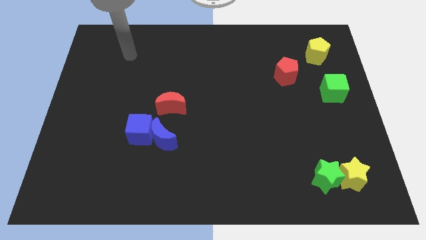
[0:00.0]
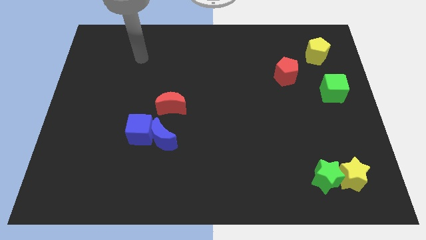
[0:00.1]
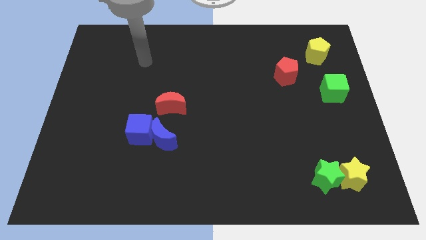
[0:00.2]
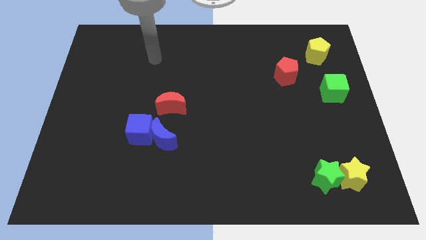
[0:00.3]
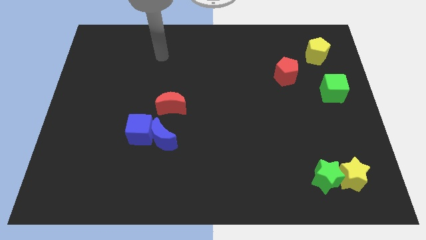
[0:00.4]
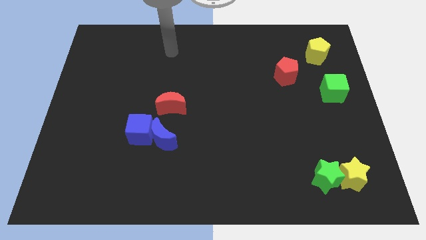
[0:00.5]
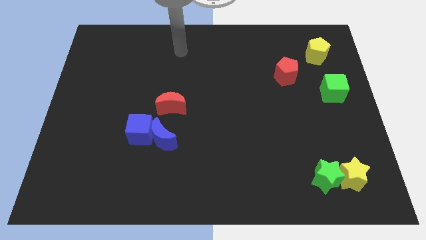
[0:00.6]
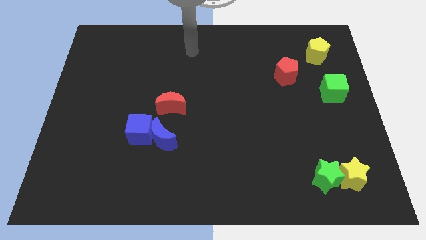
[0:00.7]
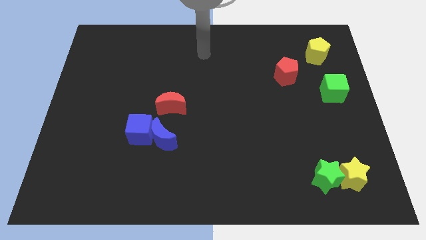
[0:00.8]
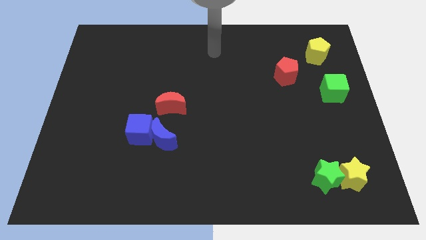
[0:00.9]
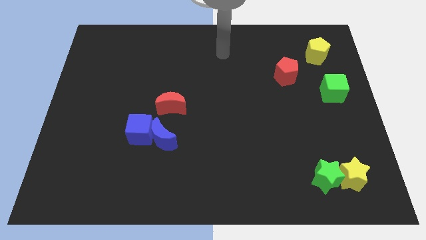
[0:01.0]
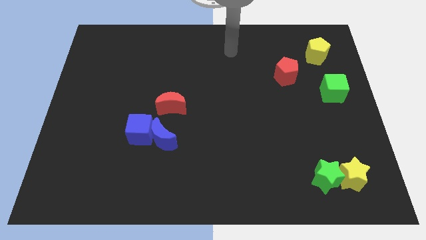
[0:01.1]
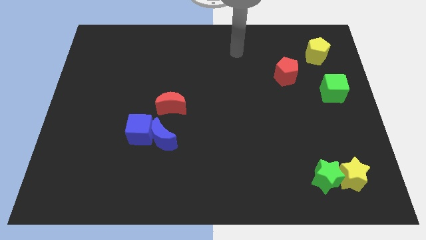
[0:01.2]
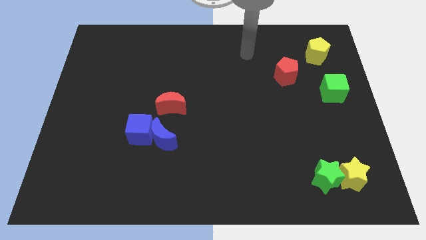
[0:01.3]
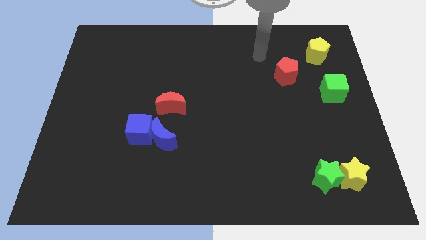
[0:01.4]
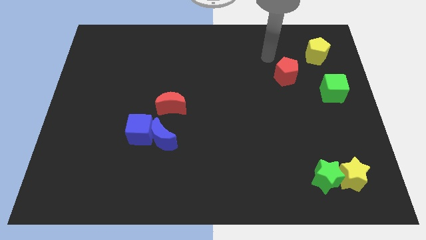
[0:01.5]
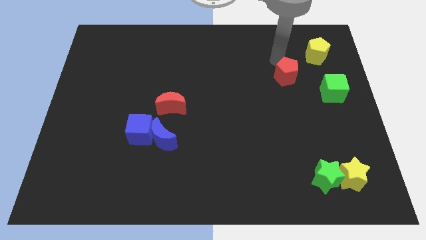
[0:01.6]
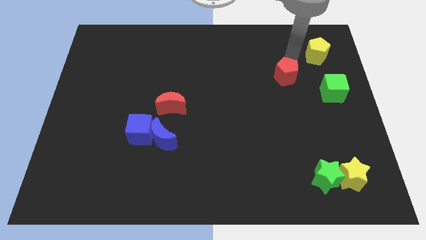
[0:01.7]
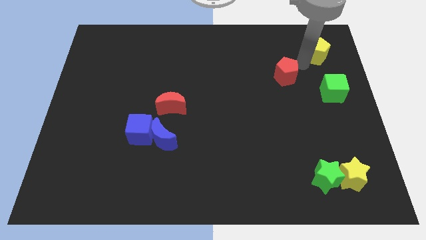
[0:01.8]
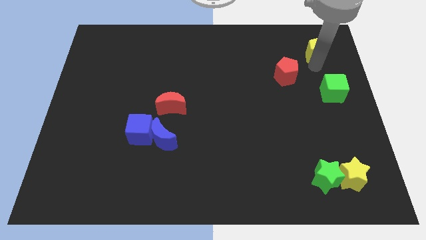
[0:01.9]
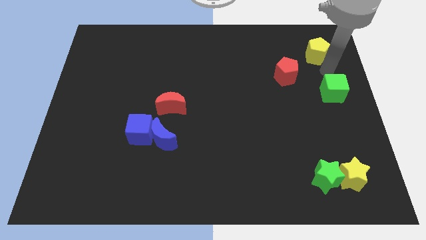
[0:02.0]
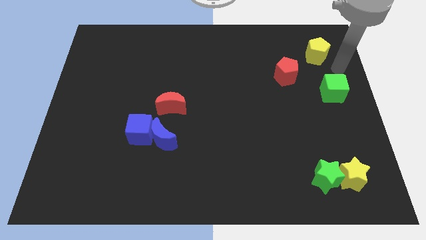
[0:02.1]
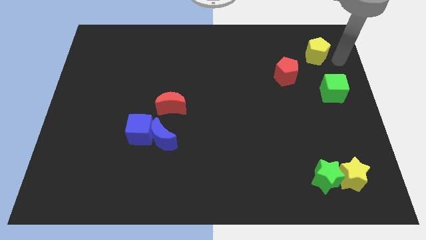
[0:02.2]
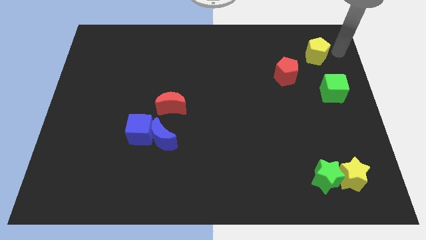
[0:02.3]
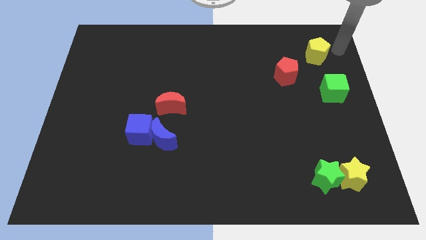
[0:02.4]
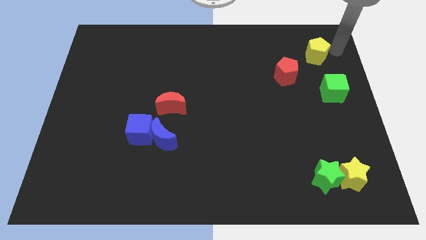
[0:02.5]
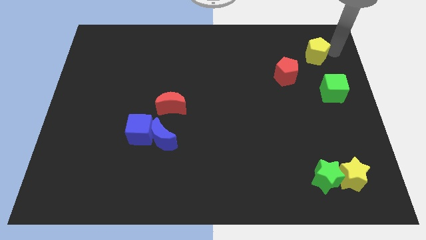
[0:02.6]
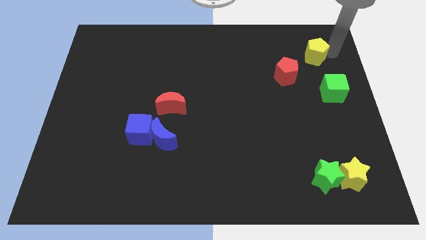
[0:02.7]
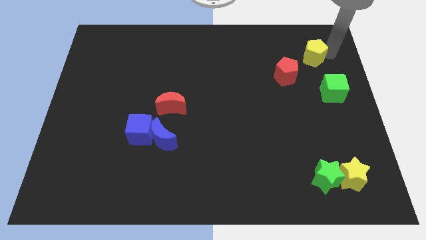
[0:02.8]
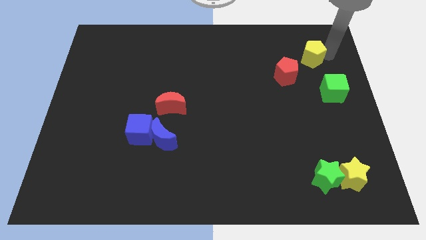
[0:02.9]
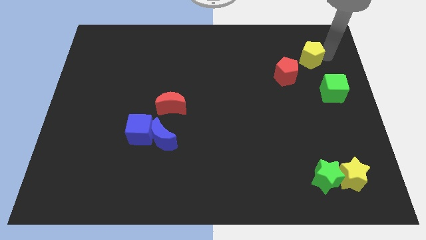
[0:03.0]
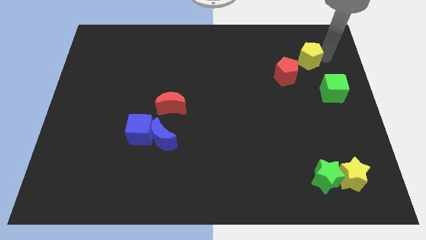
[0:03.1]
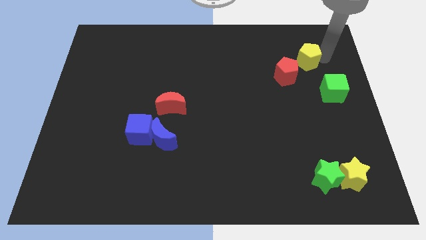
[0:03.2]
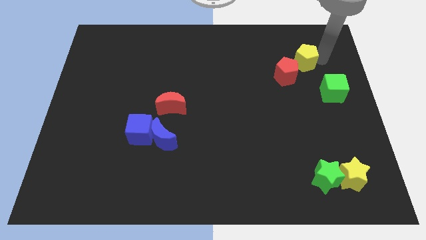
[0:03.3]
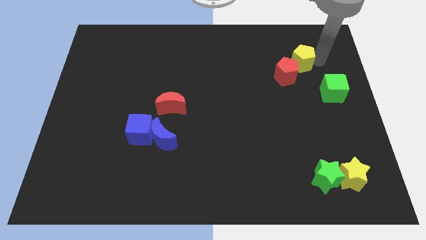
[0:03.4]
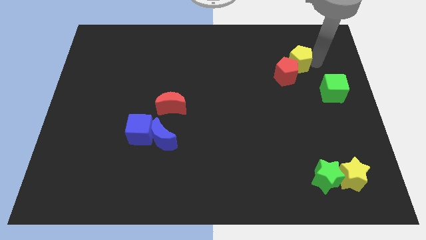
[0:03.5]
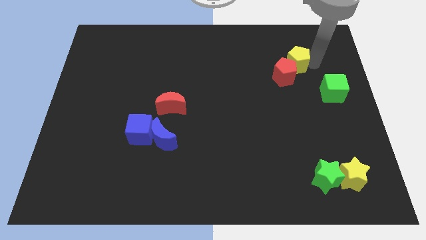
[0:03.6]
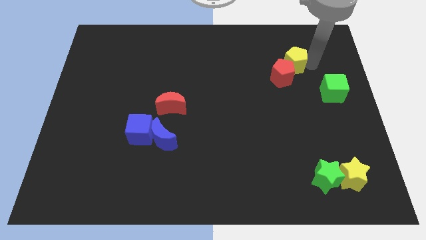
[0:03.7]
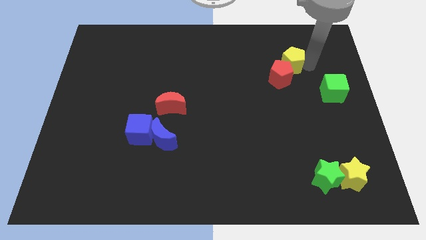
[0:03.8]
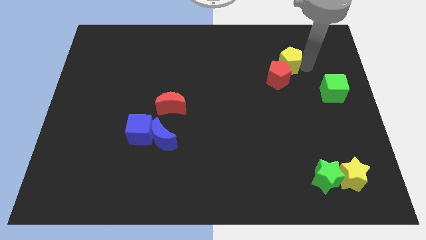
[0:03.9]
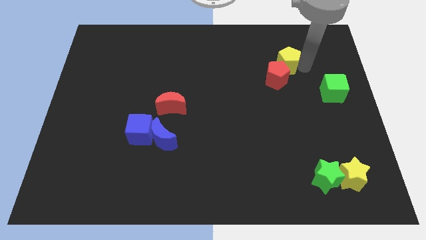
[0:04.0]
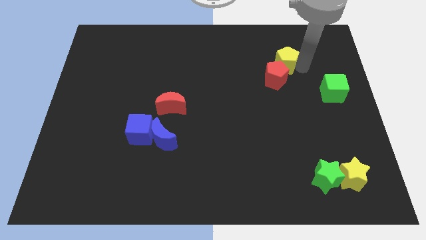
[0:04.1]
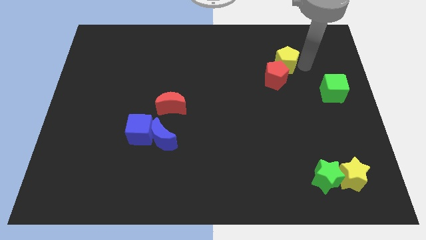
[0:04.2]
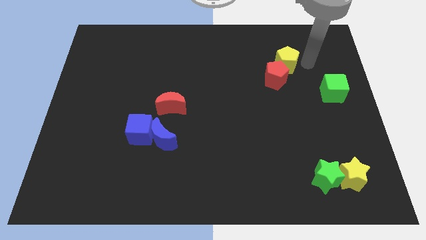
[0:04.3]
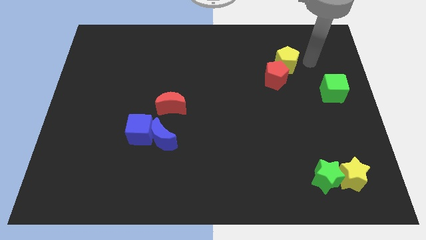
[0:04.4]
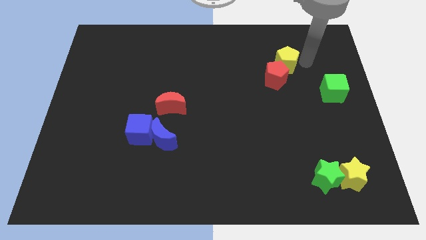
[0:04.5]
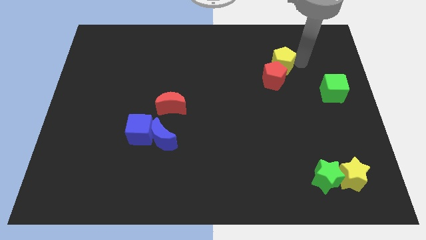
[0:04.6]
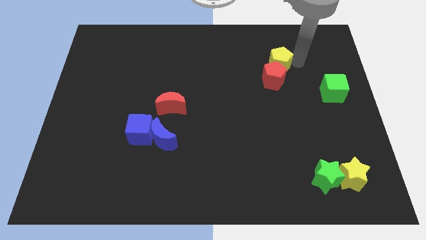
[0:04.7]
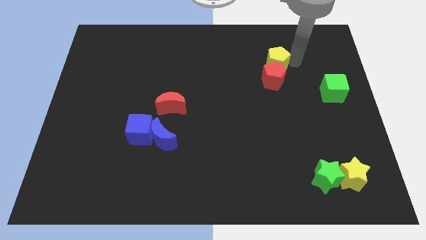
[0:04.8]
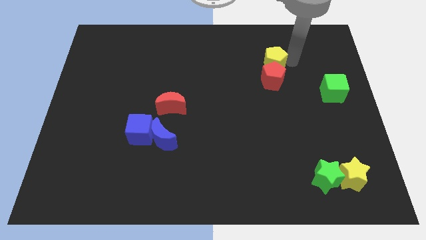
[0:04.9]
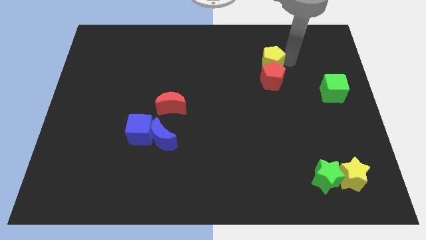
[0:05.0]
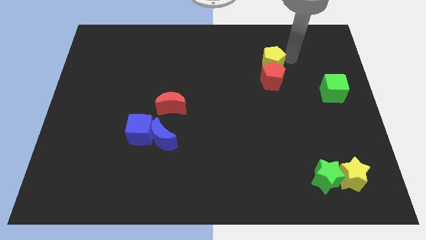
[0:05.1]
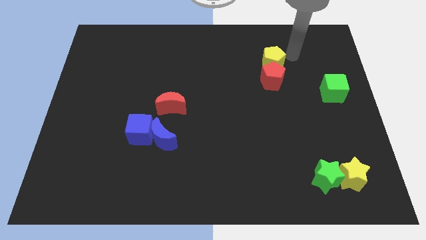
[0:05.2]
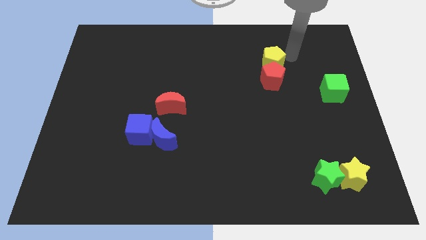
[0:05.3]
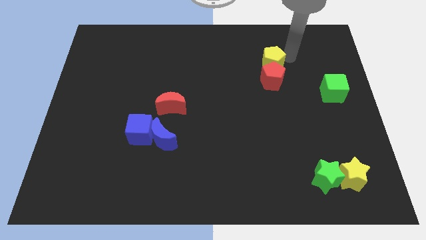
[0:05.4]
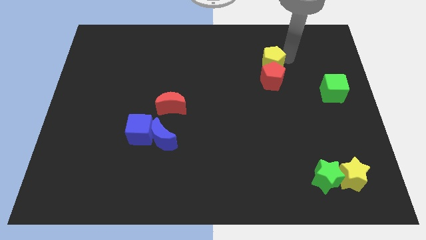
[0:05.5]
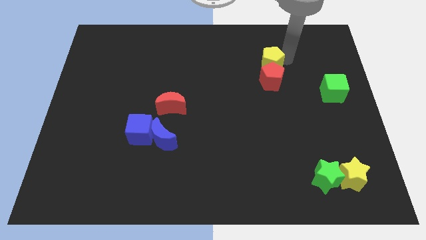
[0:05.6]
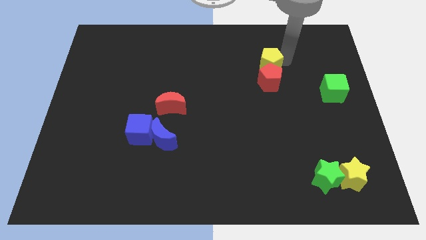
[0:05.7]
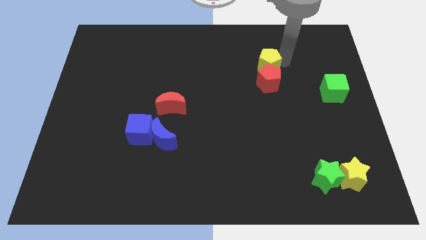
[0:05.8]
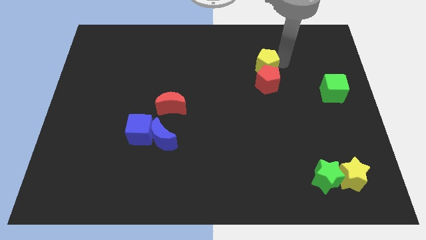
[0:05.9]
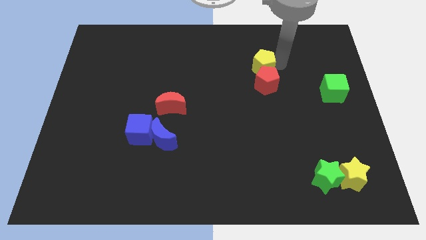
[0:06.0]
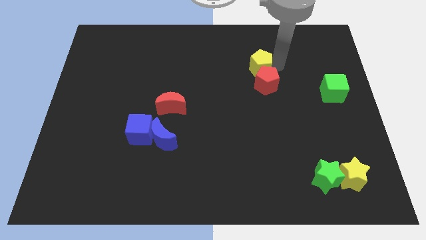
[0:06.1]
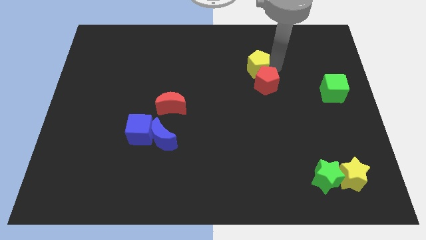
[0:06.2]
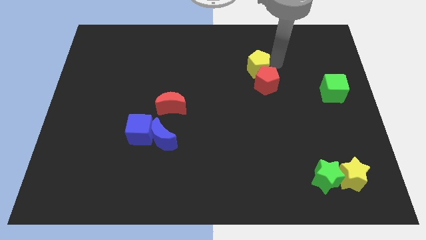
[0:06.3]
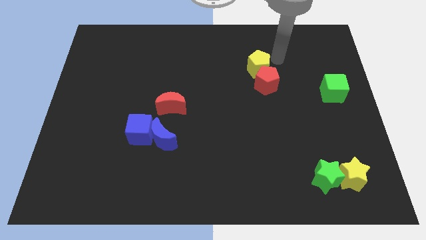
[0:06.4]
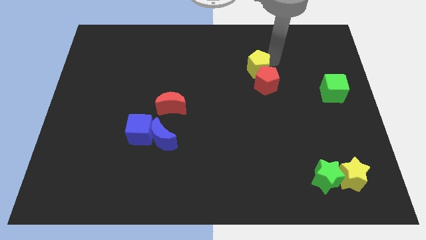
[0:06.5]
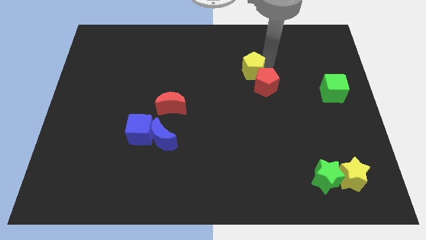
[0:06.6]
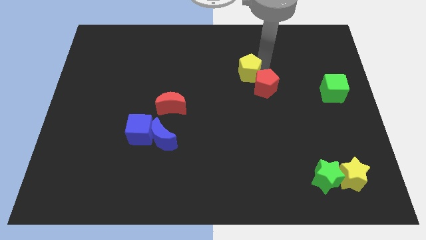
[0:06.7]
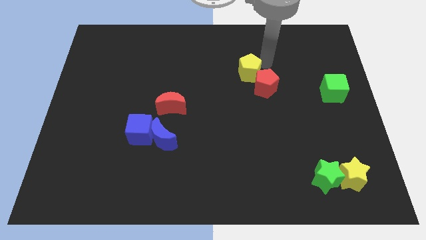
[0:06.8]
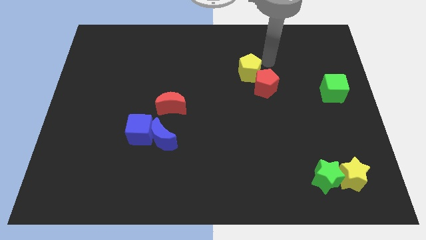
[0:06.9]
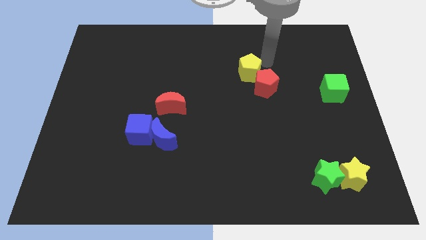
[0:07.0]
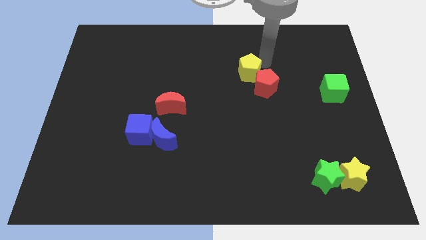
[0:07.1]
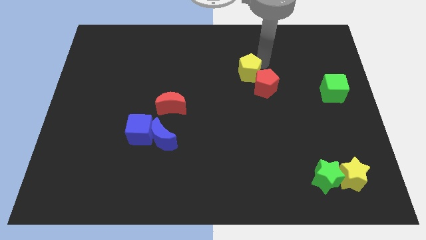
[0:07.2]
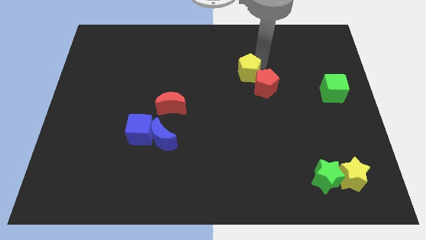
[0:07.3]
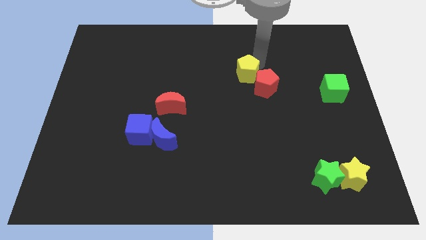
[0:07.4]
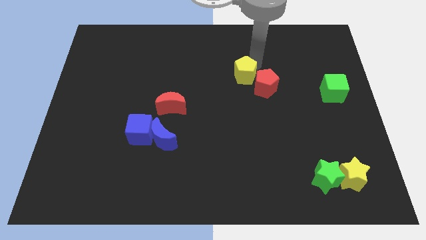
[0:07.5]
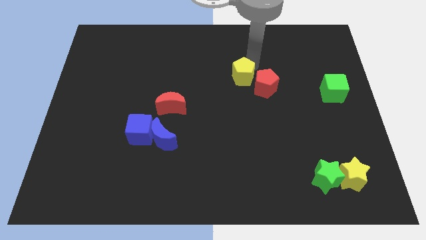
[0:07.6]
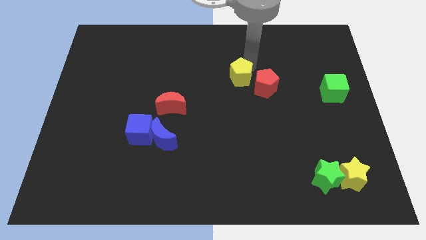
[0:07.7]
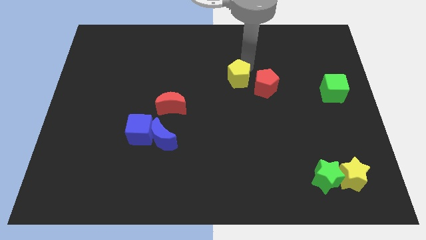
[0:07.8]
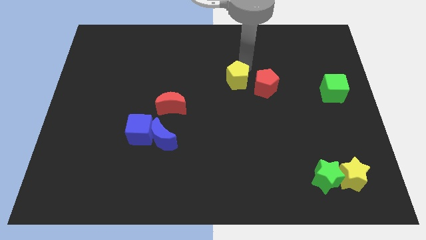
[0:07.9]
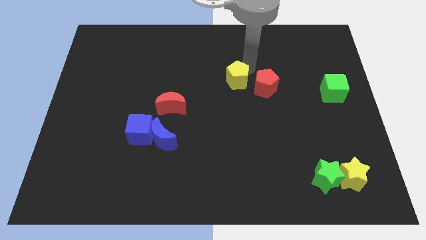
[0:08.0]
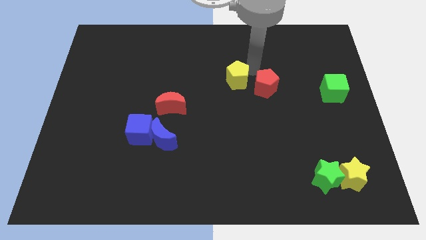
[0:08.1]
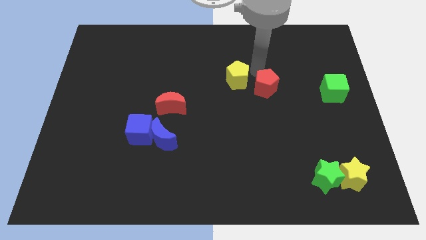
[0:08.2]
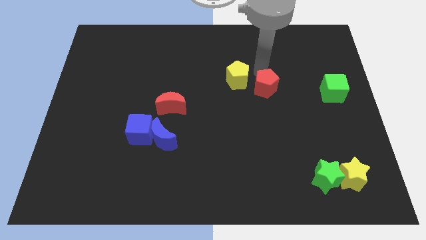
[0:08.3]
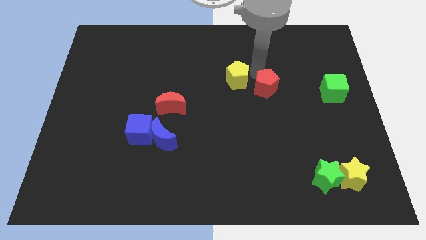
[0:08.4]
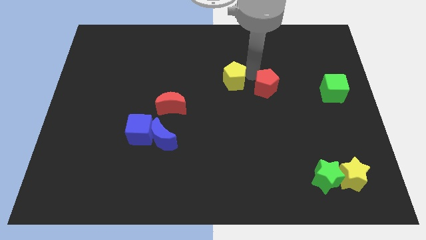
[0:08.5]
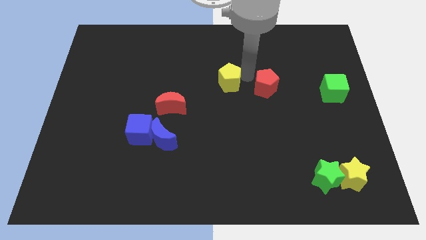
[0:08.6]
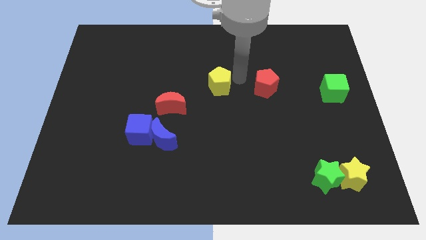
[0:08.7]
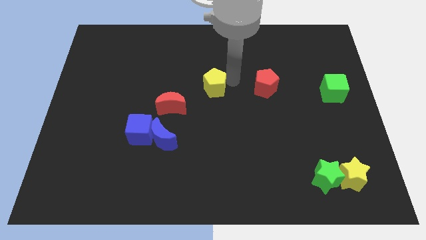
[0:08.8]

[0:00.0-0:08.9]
move the yellow pentagon to the top right of the red moon
